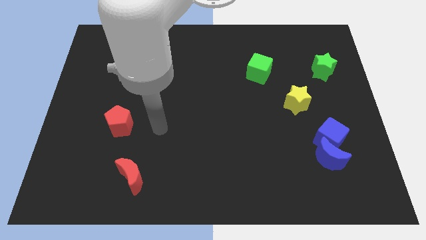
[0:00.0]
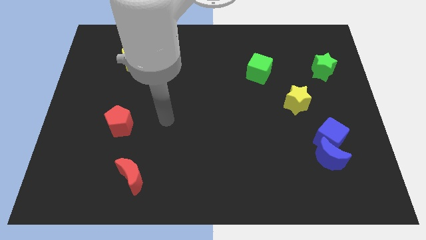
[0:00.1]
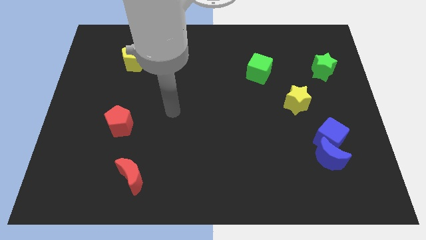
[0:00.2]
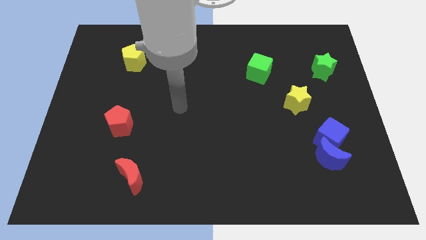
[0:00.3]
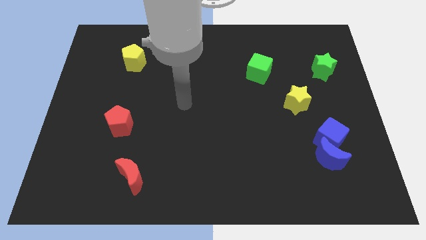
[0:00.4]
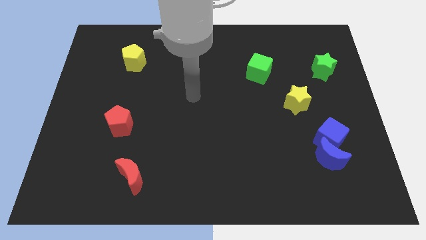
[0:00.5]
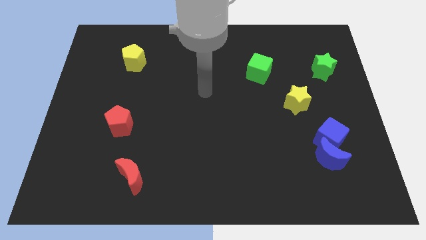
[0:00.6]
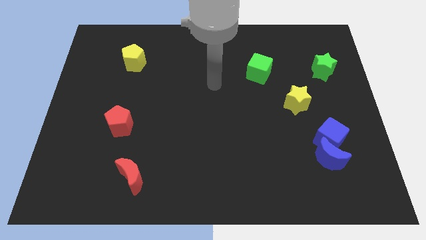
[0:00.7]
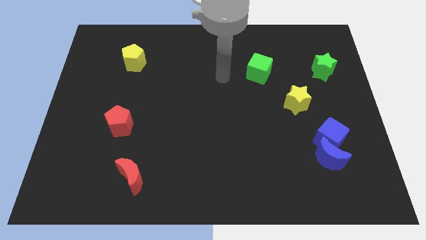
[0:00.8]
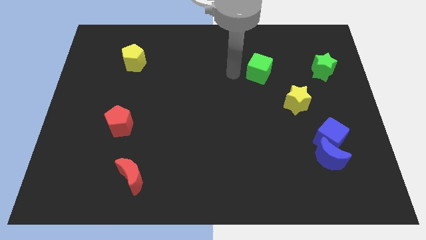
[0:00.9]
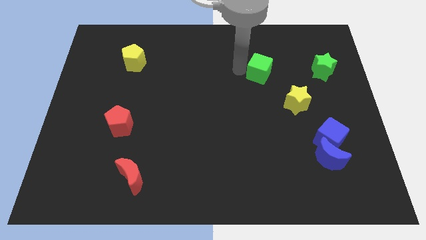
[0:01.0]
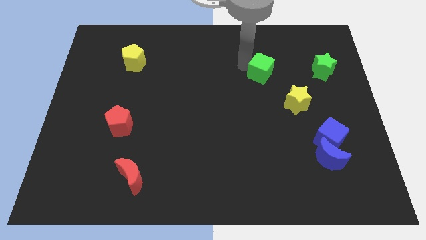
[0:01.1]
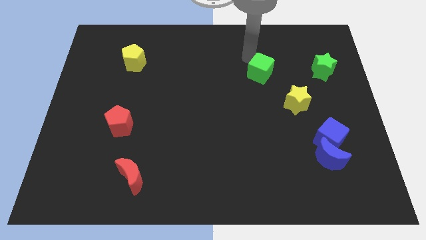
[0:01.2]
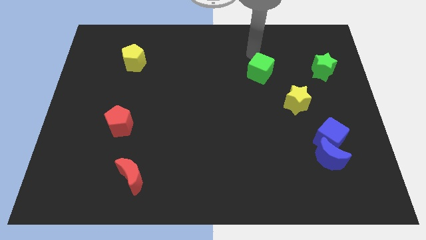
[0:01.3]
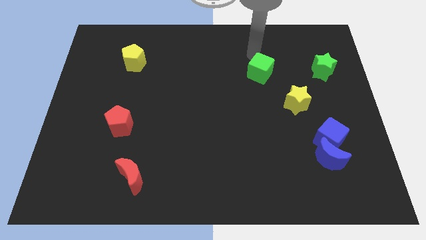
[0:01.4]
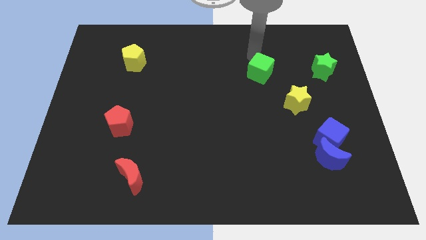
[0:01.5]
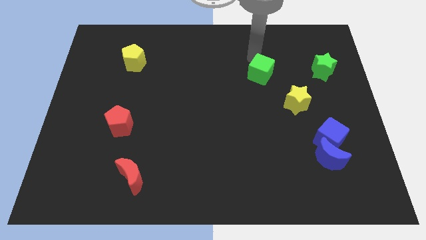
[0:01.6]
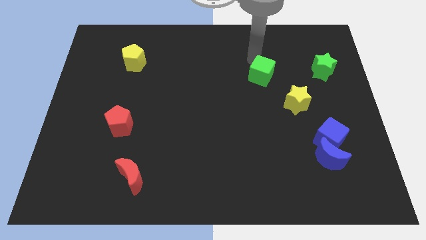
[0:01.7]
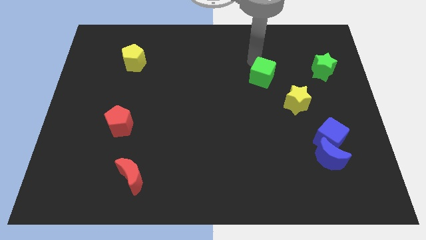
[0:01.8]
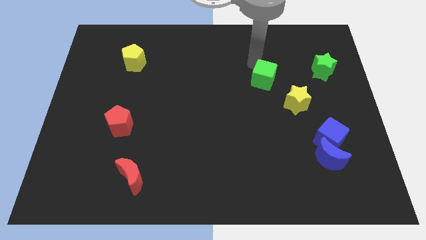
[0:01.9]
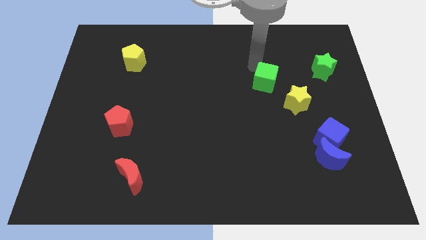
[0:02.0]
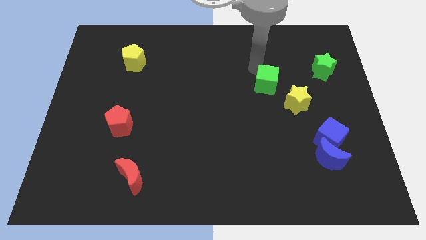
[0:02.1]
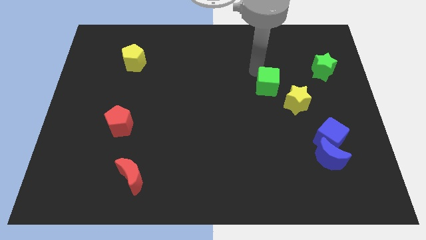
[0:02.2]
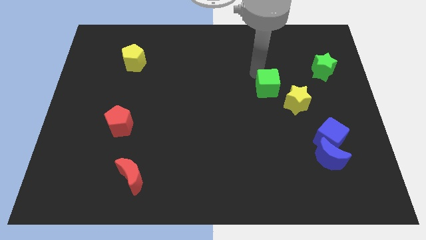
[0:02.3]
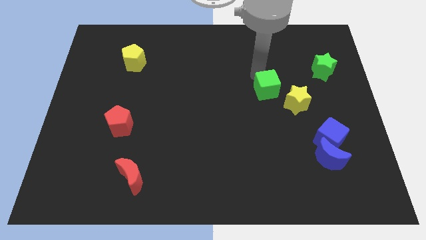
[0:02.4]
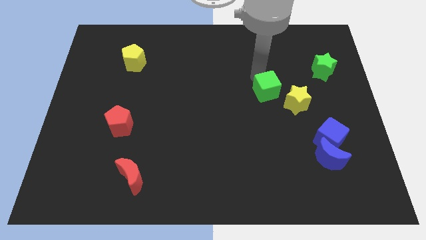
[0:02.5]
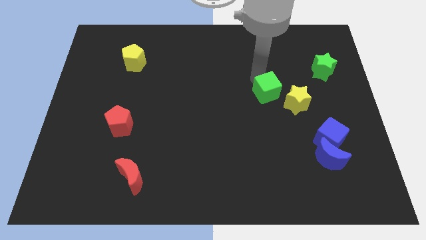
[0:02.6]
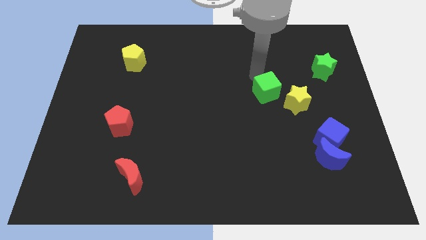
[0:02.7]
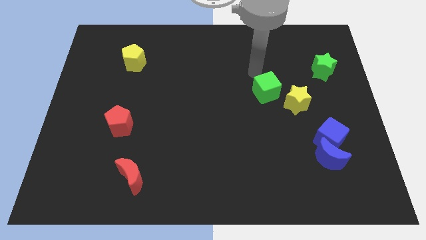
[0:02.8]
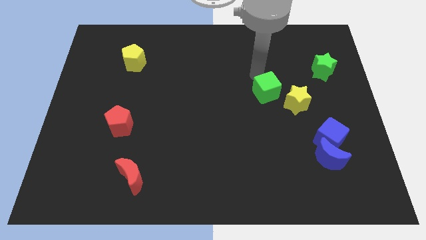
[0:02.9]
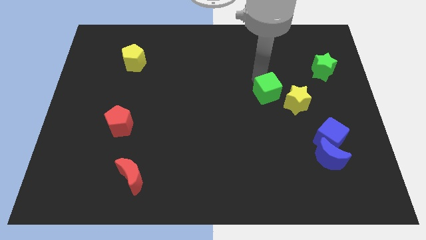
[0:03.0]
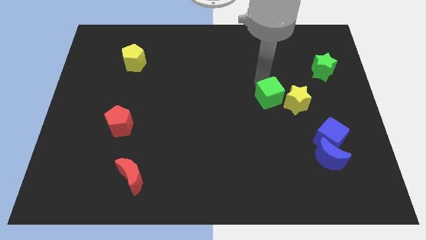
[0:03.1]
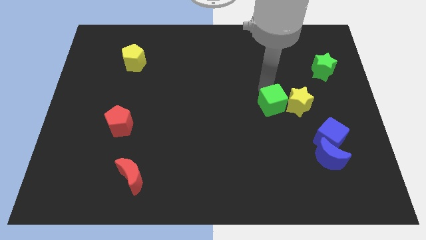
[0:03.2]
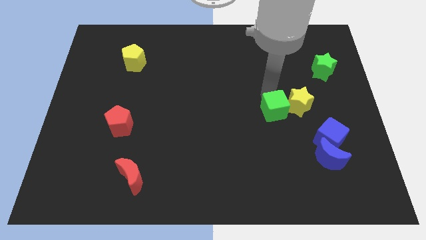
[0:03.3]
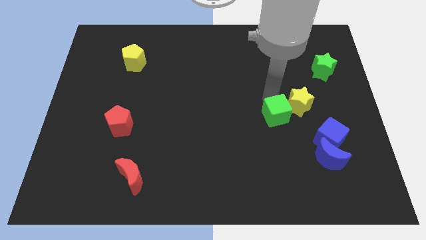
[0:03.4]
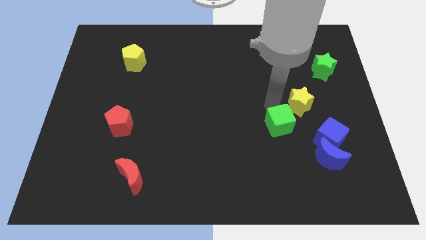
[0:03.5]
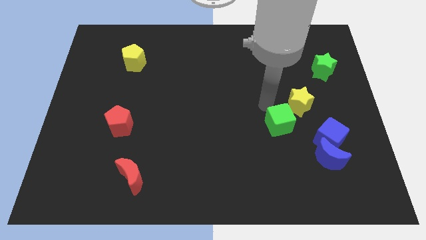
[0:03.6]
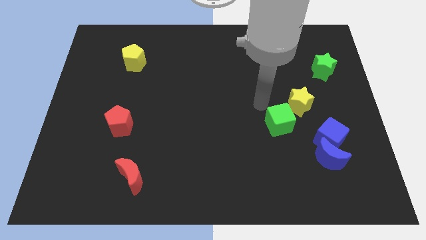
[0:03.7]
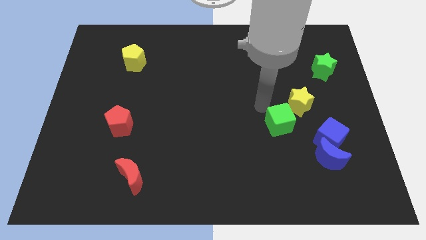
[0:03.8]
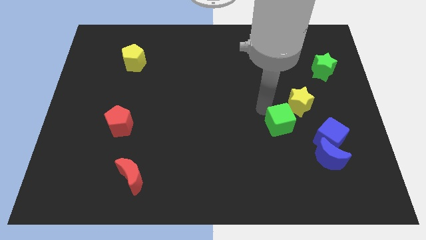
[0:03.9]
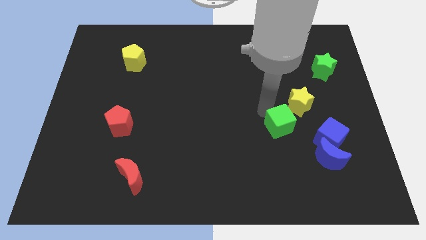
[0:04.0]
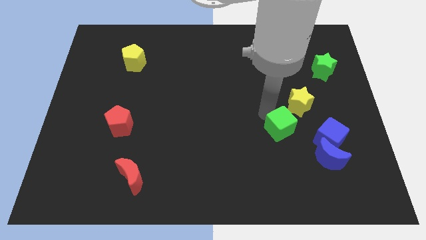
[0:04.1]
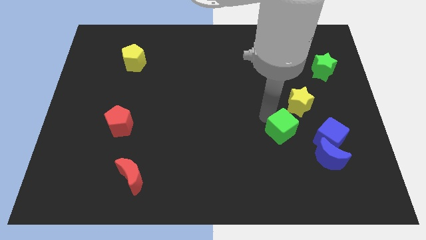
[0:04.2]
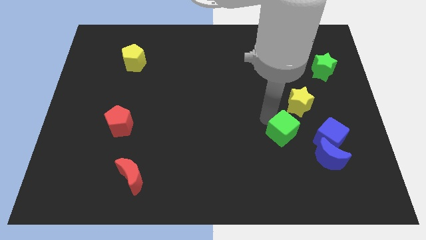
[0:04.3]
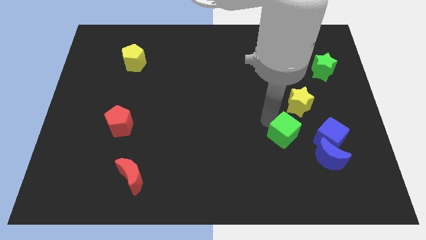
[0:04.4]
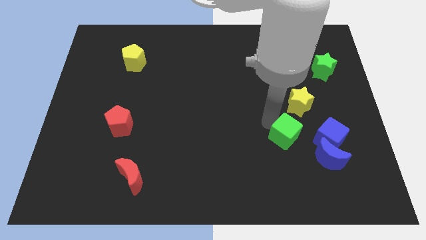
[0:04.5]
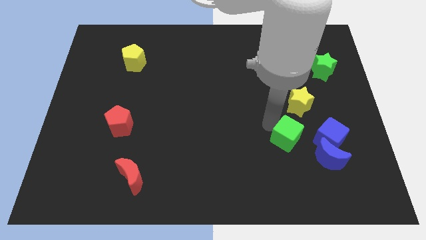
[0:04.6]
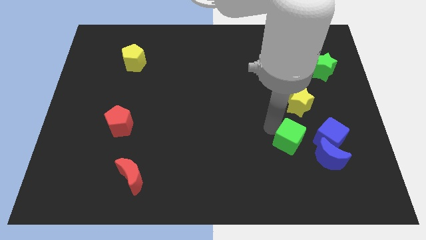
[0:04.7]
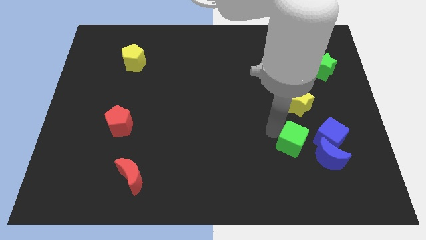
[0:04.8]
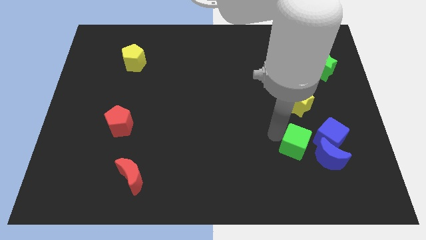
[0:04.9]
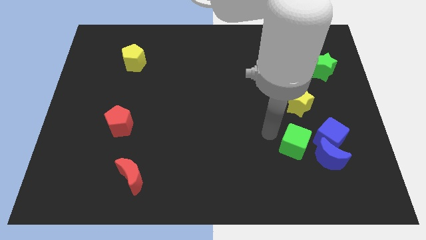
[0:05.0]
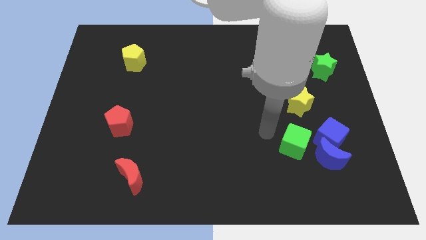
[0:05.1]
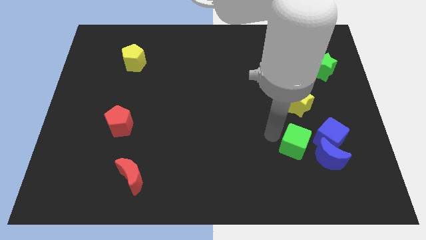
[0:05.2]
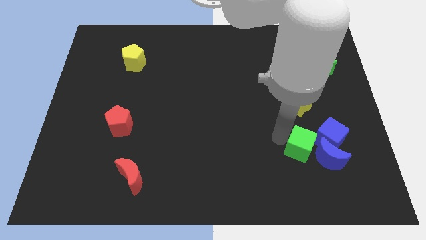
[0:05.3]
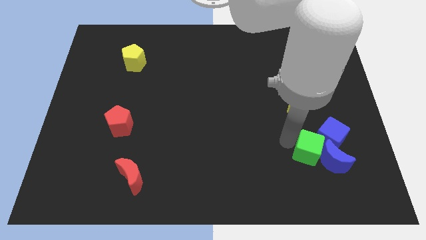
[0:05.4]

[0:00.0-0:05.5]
put the green cube next to the blue moon
